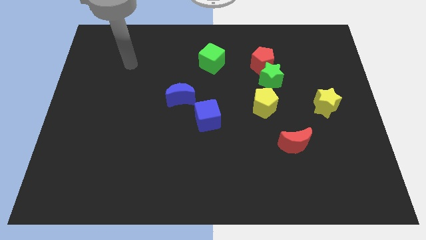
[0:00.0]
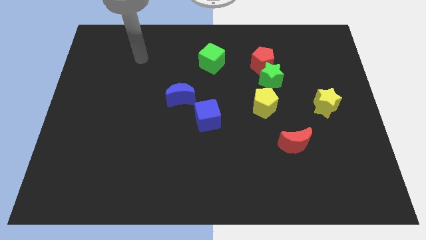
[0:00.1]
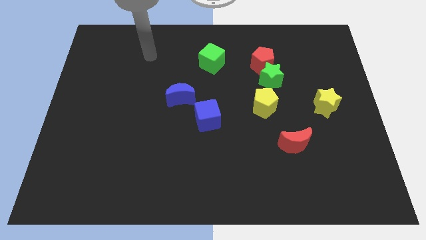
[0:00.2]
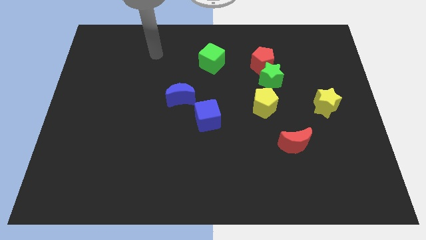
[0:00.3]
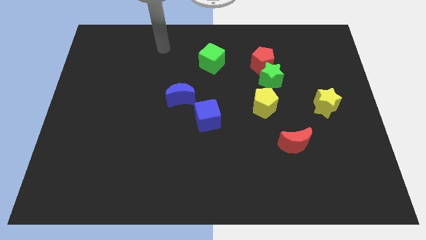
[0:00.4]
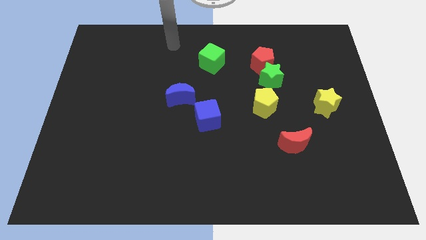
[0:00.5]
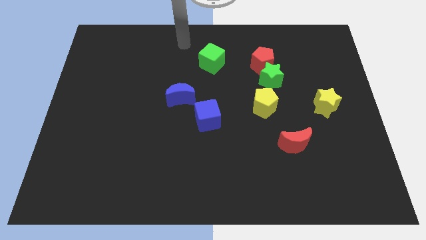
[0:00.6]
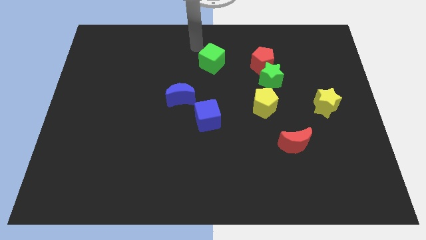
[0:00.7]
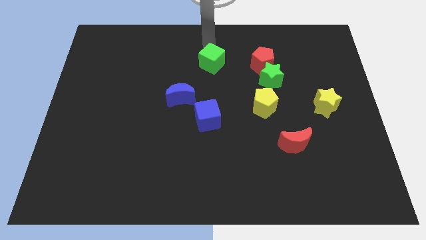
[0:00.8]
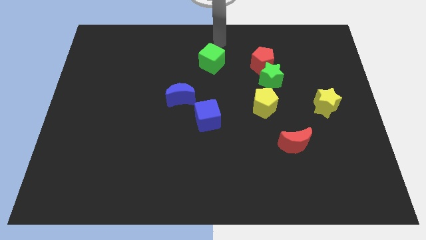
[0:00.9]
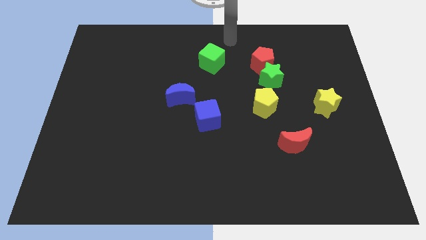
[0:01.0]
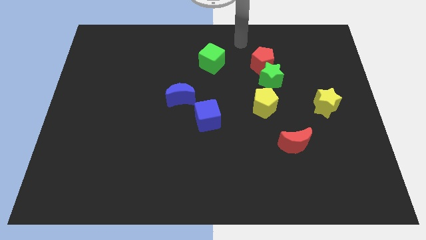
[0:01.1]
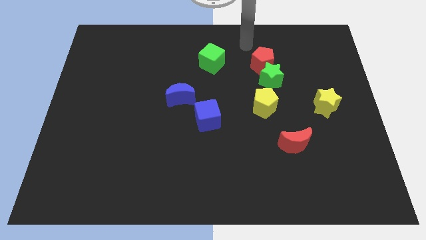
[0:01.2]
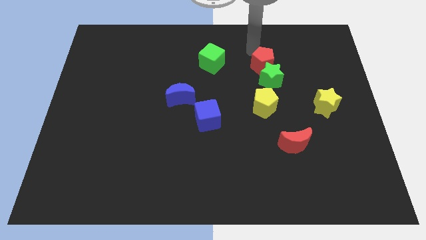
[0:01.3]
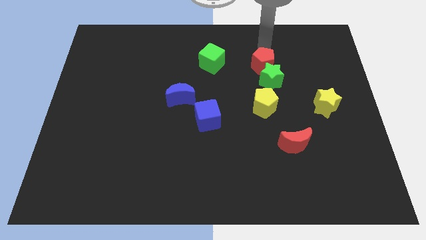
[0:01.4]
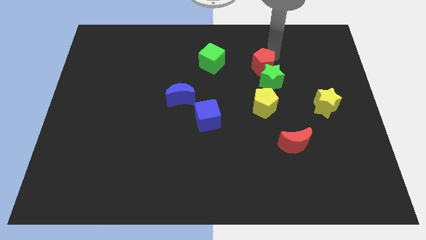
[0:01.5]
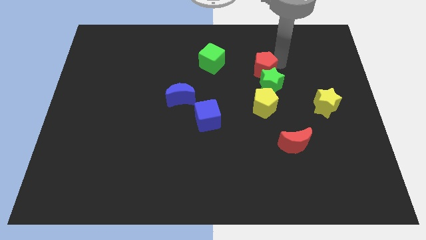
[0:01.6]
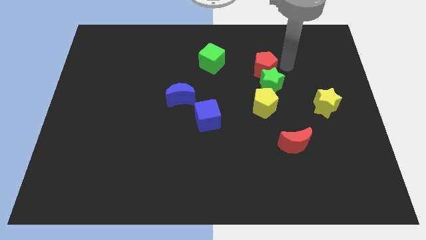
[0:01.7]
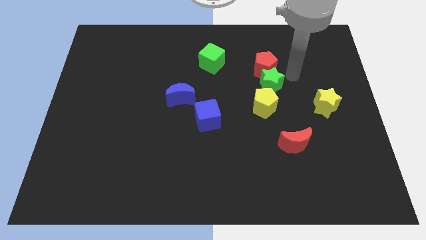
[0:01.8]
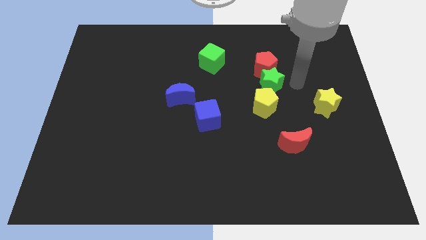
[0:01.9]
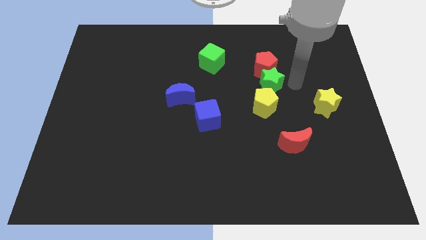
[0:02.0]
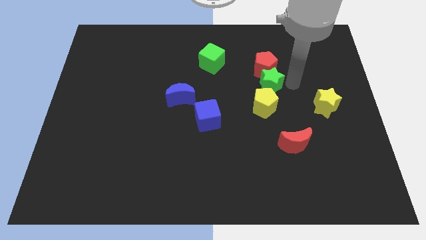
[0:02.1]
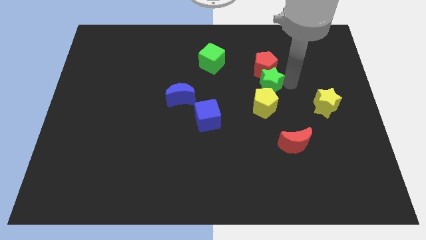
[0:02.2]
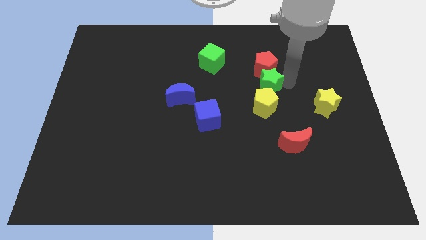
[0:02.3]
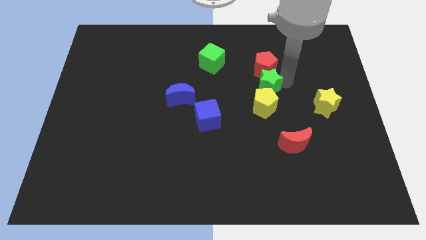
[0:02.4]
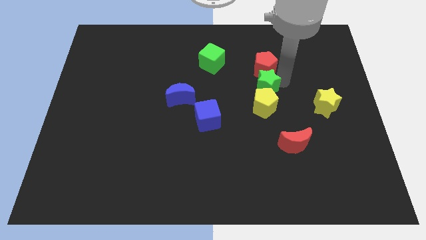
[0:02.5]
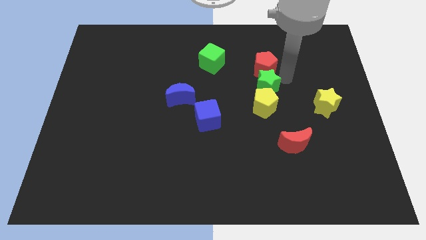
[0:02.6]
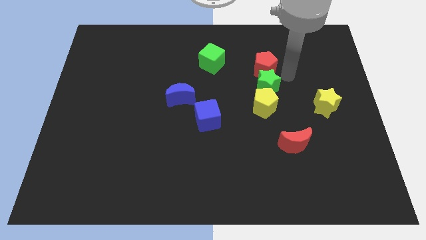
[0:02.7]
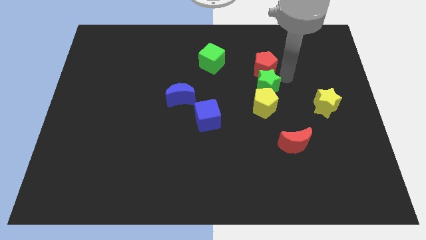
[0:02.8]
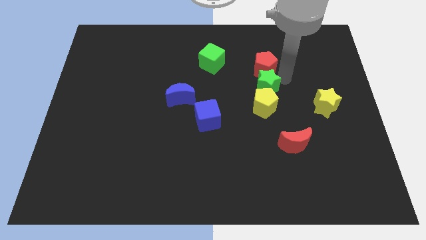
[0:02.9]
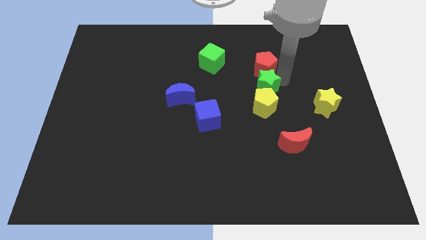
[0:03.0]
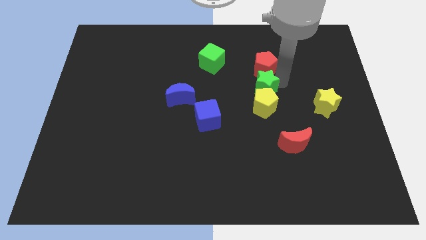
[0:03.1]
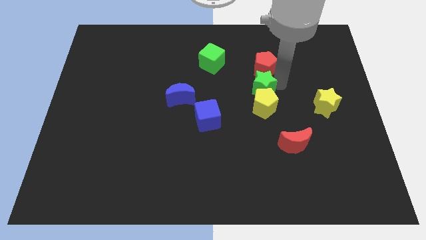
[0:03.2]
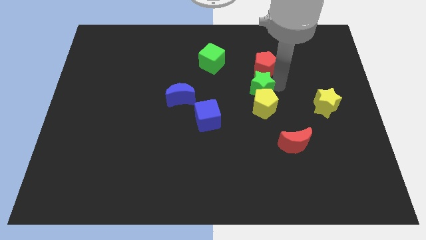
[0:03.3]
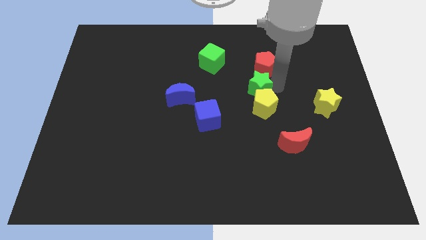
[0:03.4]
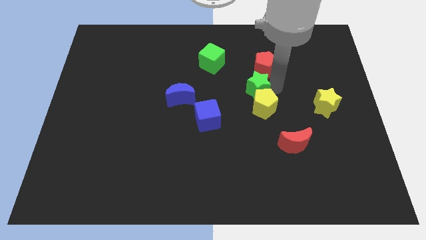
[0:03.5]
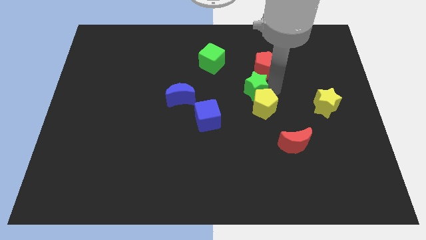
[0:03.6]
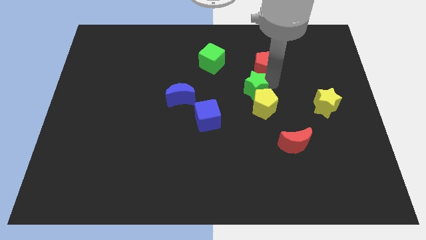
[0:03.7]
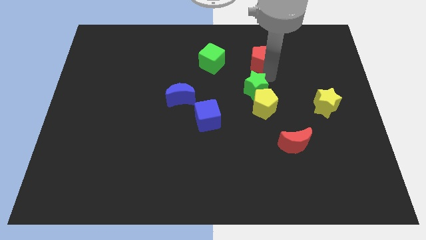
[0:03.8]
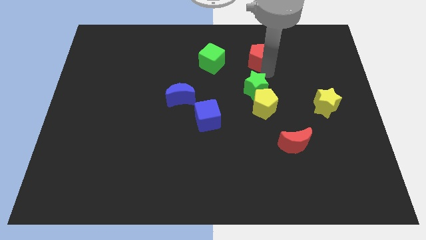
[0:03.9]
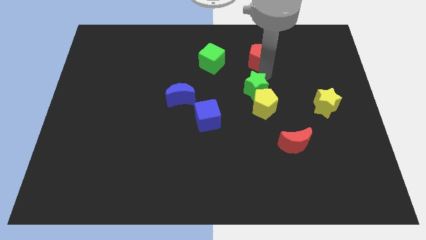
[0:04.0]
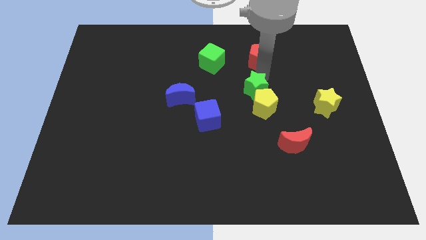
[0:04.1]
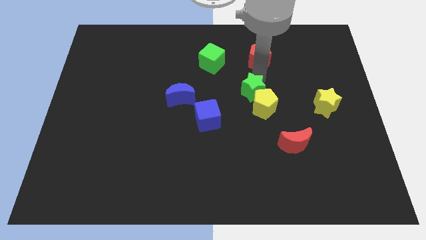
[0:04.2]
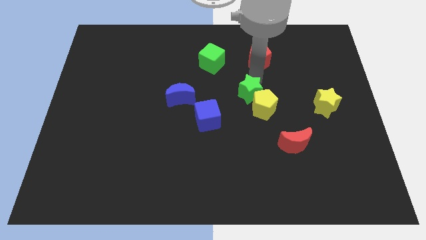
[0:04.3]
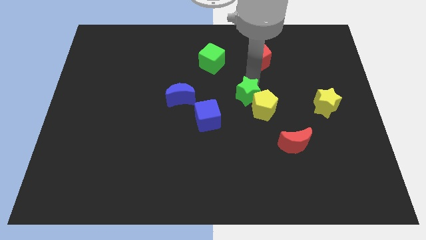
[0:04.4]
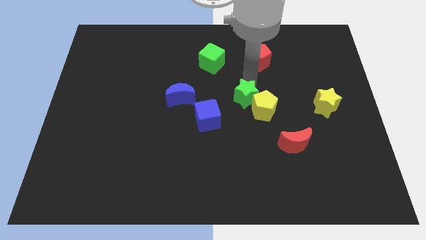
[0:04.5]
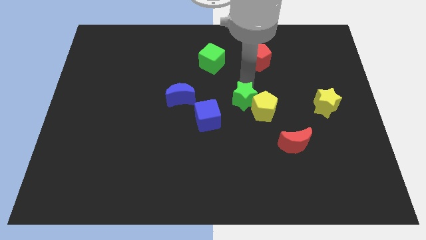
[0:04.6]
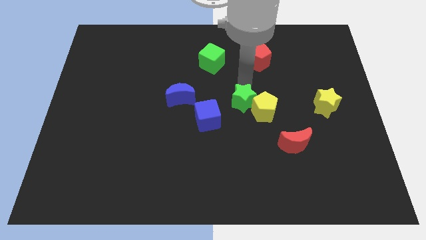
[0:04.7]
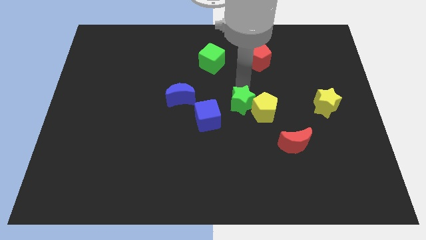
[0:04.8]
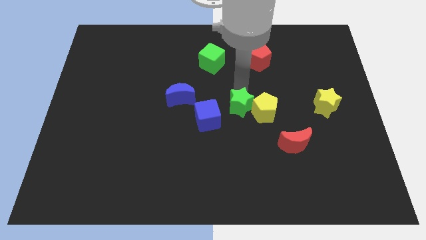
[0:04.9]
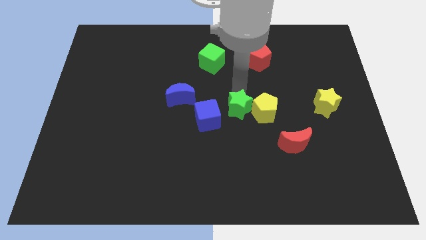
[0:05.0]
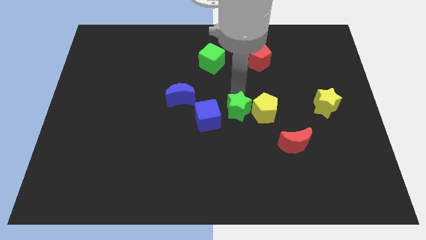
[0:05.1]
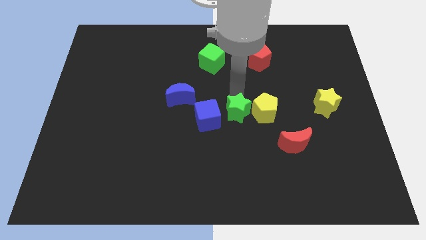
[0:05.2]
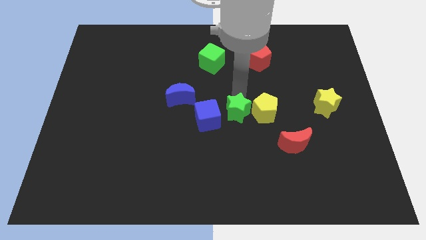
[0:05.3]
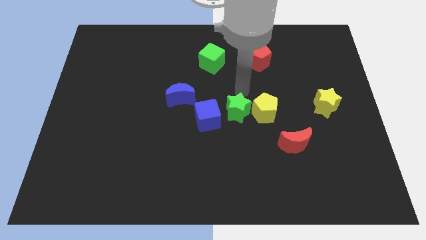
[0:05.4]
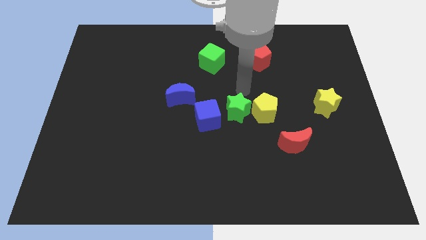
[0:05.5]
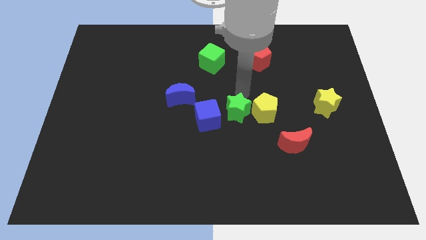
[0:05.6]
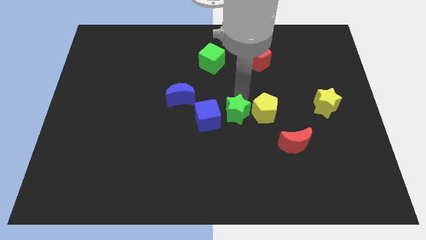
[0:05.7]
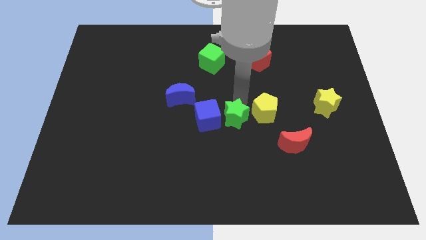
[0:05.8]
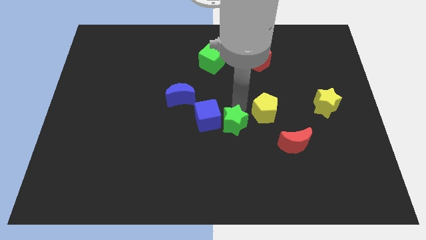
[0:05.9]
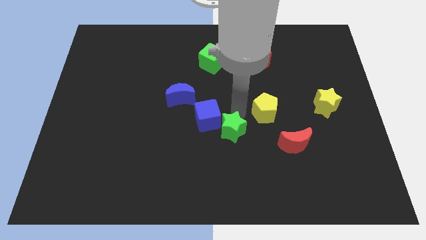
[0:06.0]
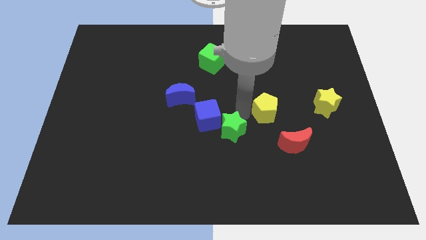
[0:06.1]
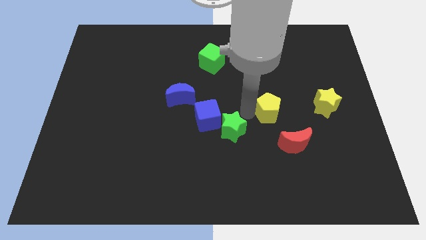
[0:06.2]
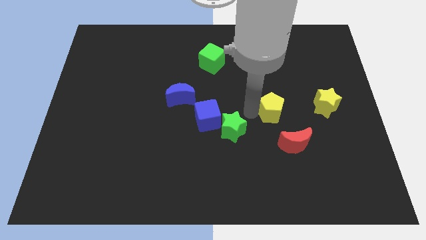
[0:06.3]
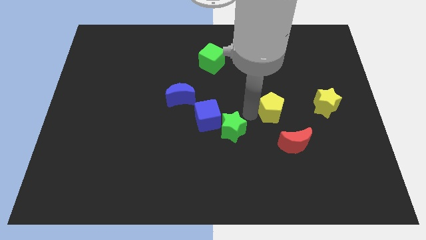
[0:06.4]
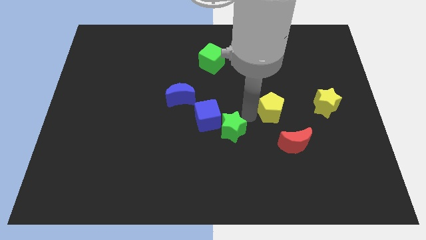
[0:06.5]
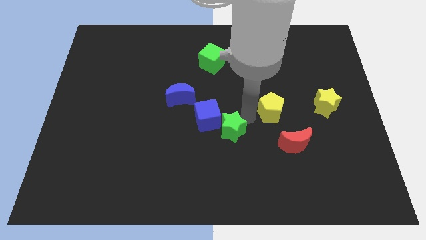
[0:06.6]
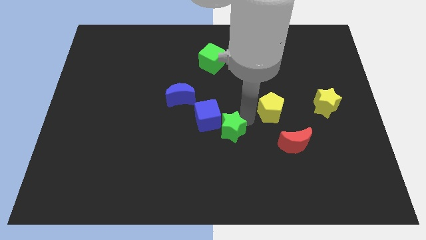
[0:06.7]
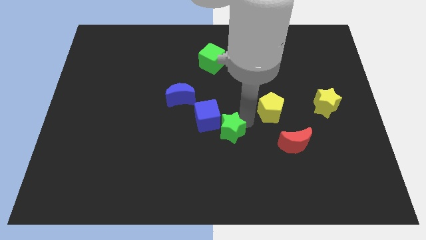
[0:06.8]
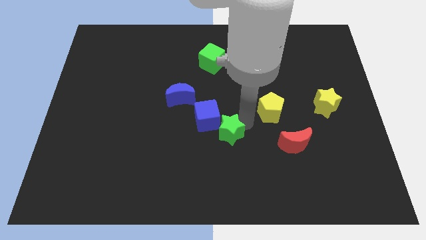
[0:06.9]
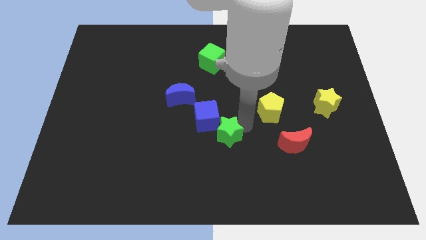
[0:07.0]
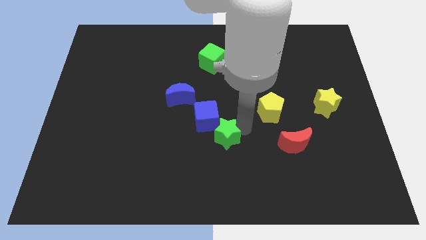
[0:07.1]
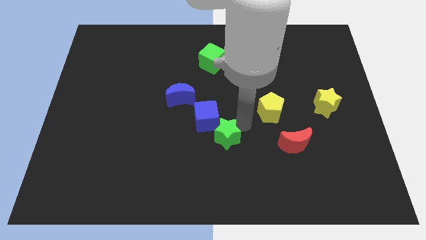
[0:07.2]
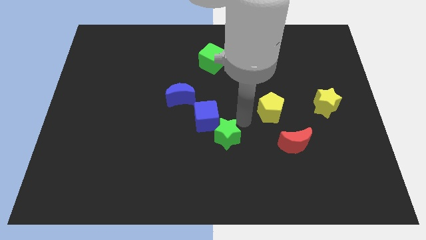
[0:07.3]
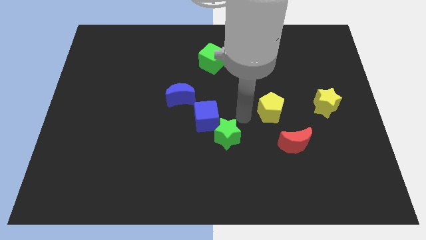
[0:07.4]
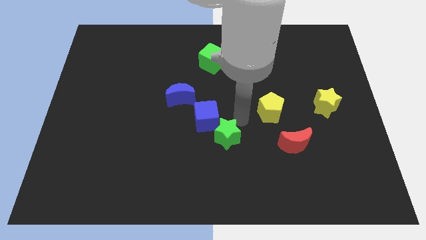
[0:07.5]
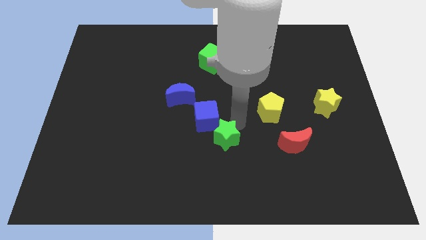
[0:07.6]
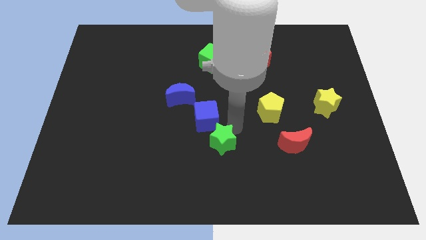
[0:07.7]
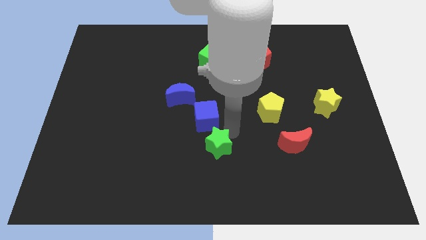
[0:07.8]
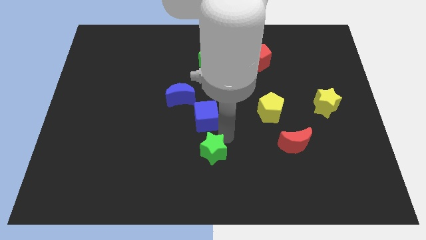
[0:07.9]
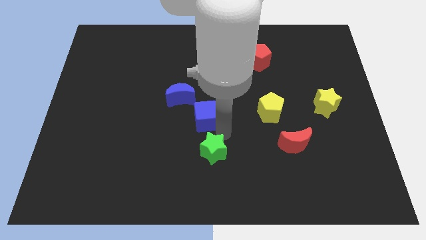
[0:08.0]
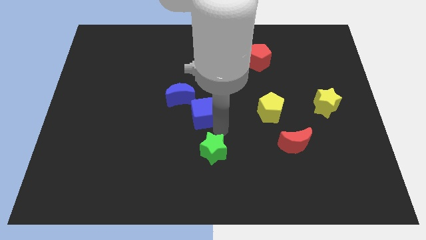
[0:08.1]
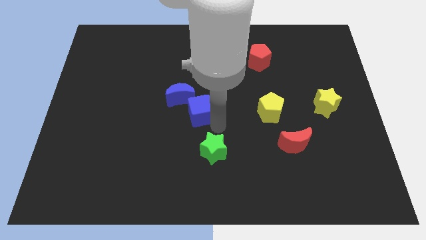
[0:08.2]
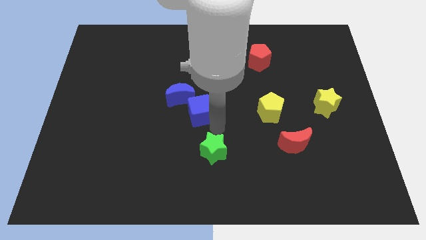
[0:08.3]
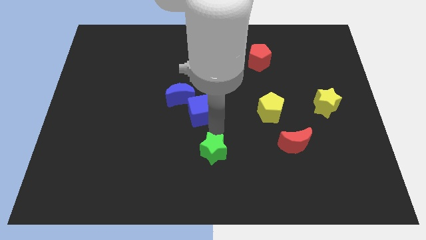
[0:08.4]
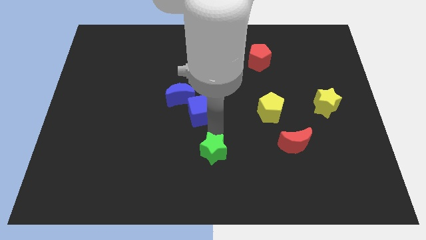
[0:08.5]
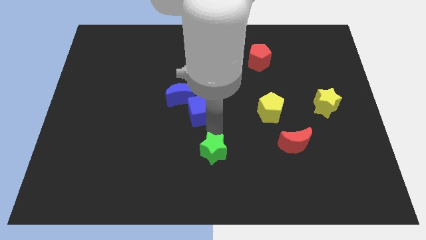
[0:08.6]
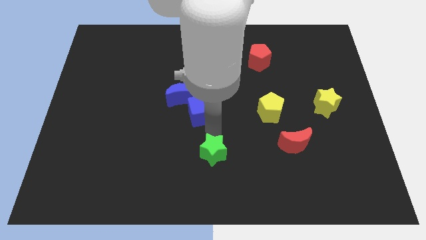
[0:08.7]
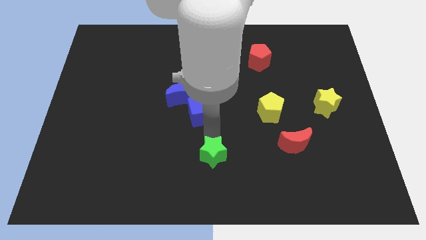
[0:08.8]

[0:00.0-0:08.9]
put the green star to the bottom side
